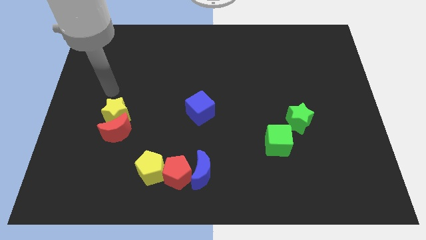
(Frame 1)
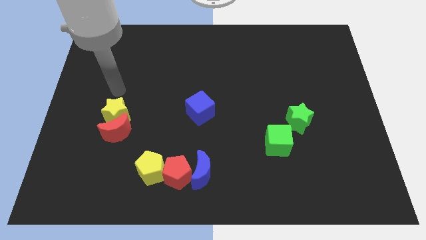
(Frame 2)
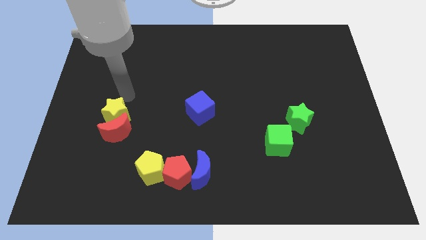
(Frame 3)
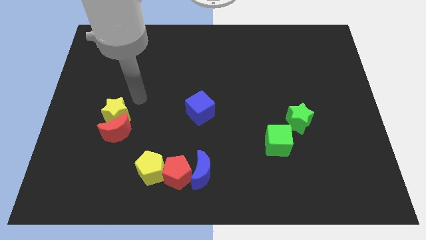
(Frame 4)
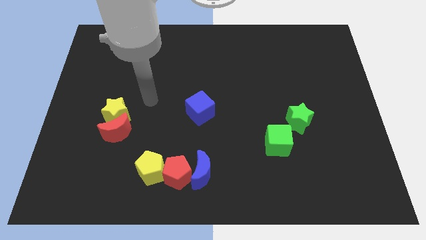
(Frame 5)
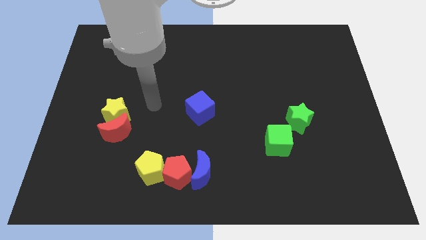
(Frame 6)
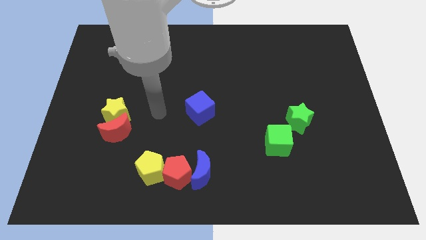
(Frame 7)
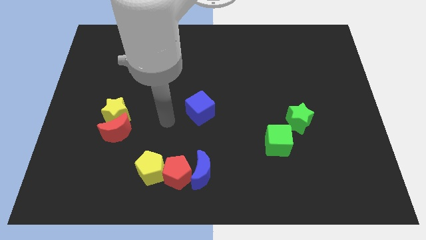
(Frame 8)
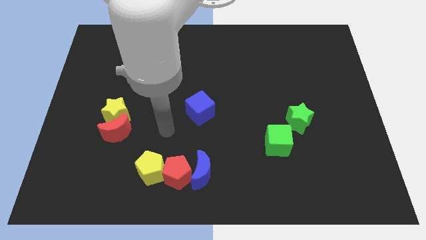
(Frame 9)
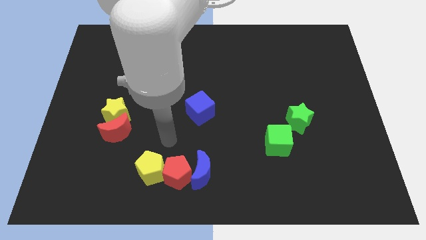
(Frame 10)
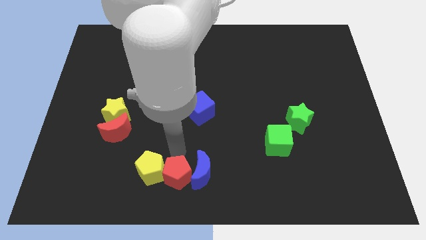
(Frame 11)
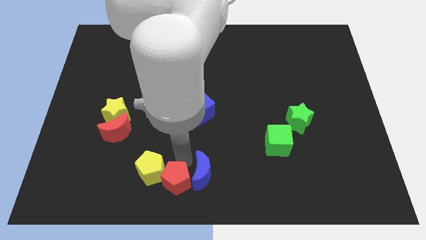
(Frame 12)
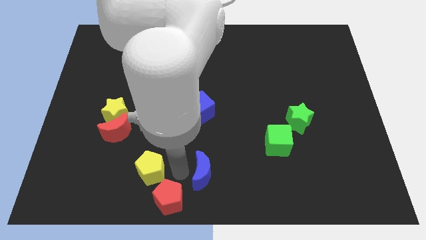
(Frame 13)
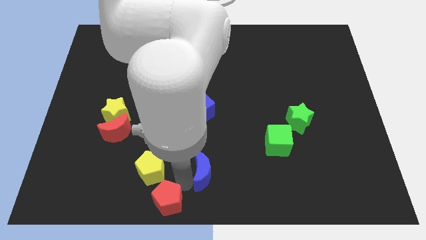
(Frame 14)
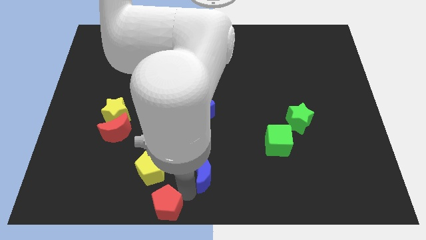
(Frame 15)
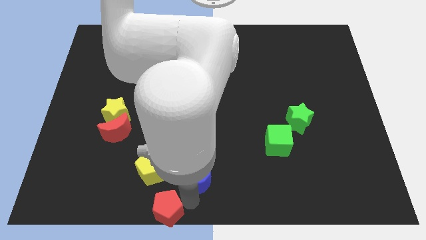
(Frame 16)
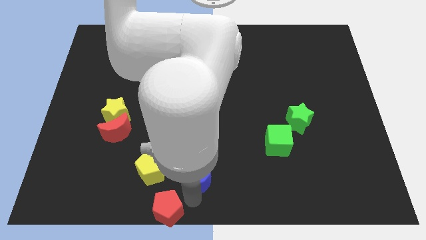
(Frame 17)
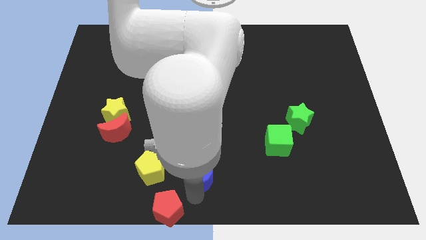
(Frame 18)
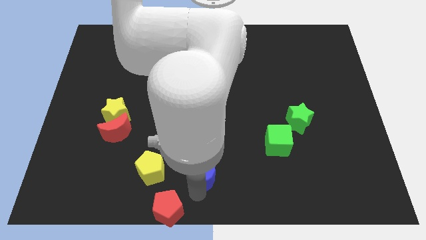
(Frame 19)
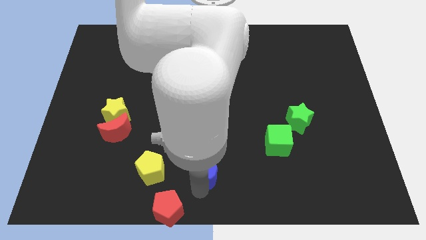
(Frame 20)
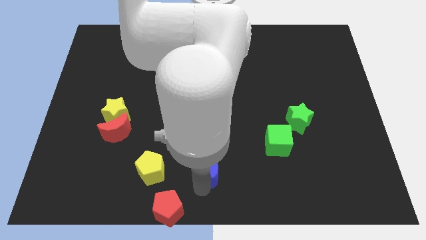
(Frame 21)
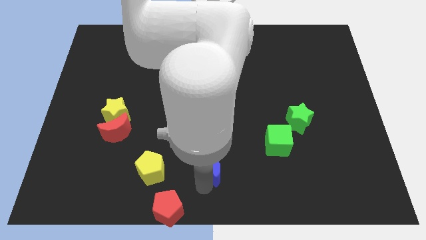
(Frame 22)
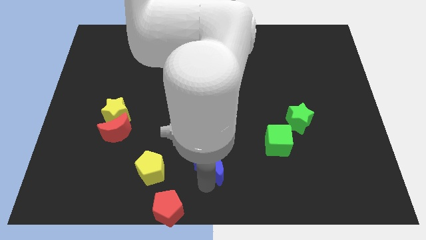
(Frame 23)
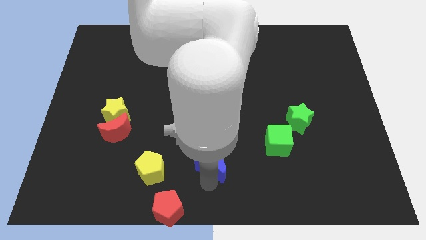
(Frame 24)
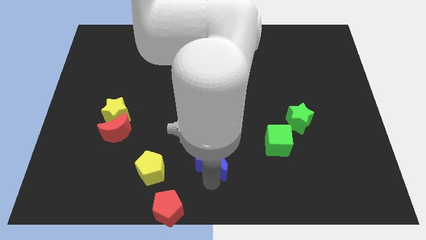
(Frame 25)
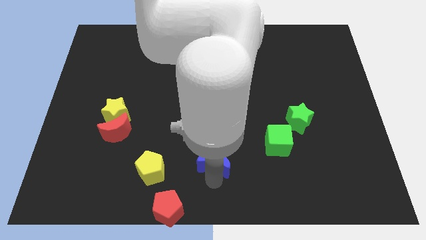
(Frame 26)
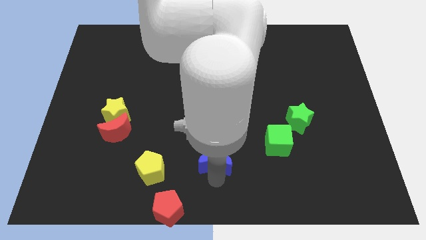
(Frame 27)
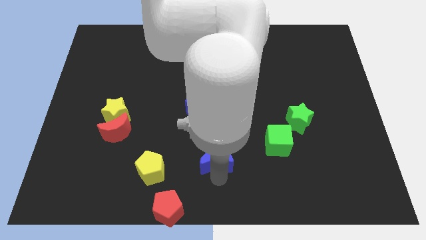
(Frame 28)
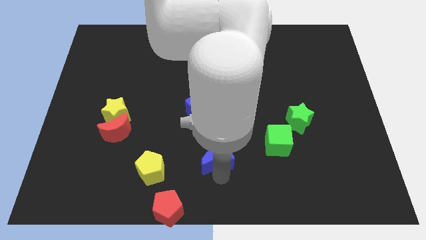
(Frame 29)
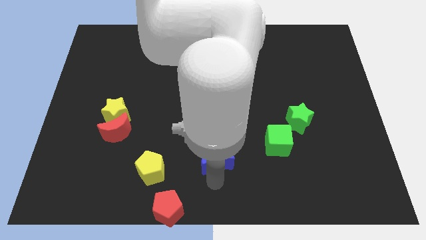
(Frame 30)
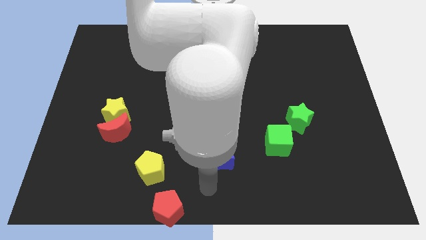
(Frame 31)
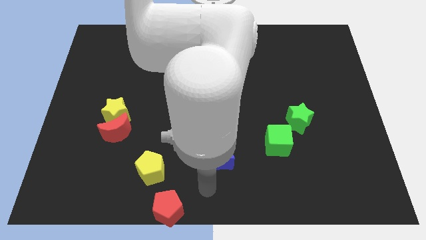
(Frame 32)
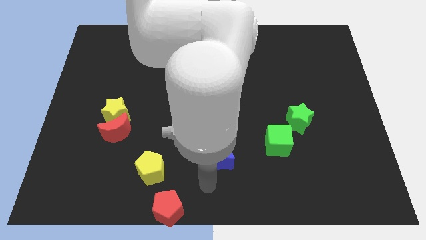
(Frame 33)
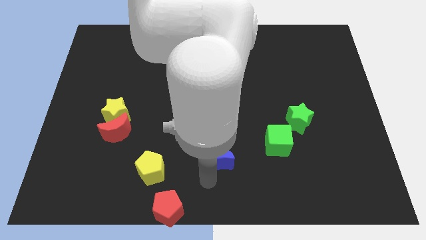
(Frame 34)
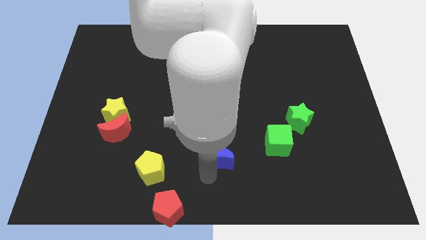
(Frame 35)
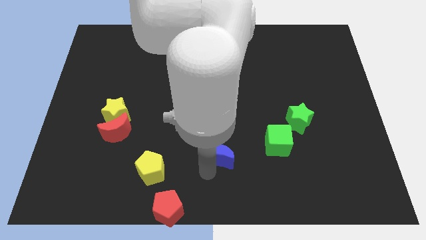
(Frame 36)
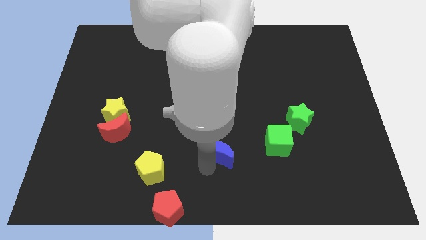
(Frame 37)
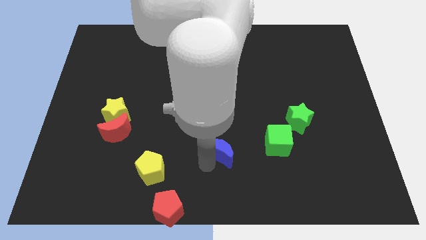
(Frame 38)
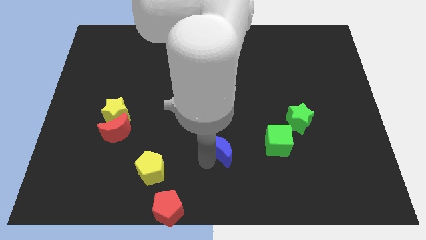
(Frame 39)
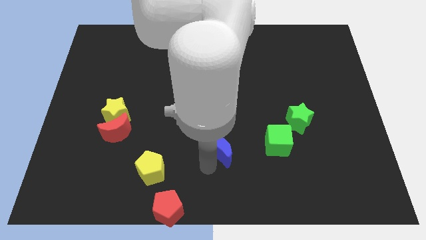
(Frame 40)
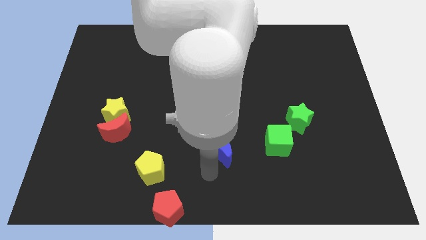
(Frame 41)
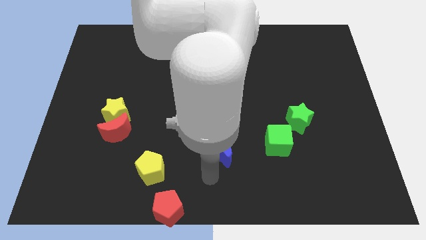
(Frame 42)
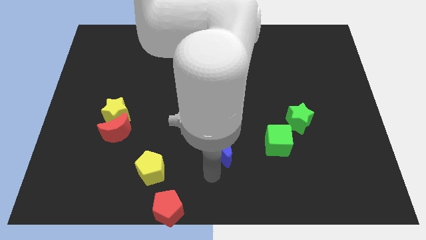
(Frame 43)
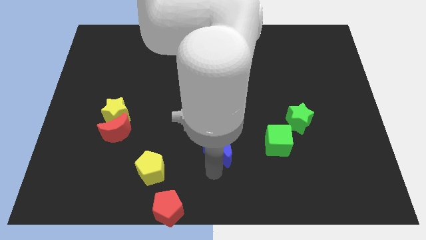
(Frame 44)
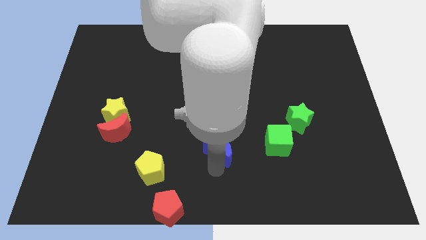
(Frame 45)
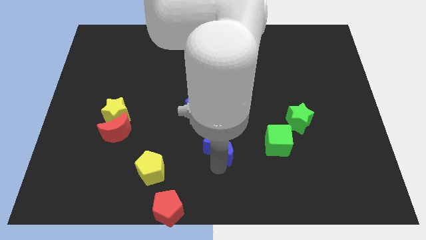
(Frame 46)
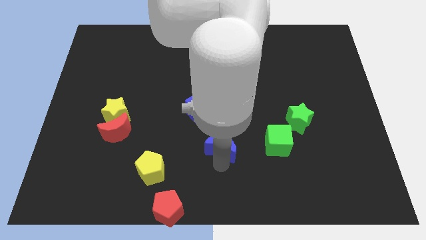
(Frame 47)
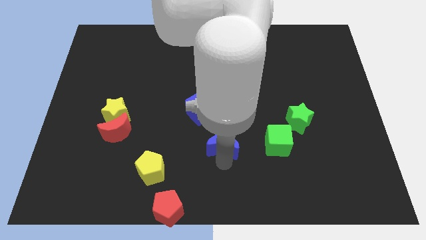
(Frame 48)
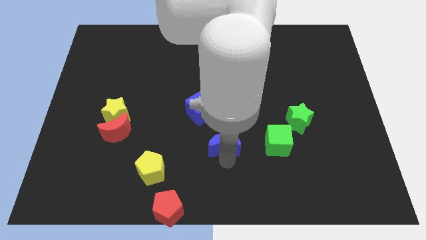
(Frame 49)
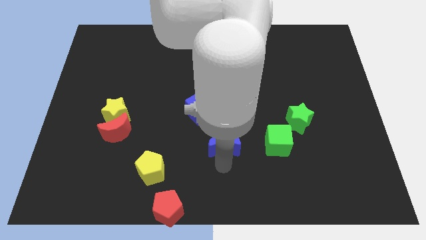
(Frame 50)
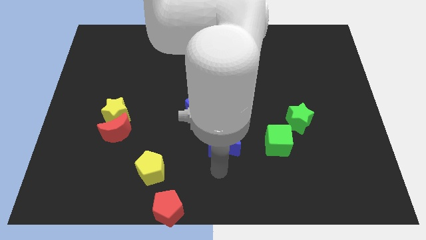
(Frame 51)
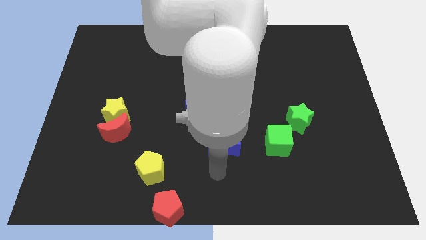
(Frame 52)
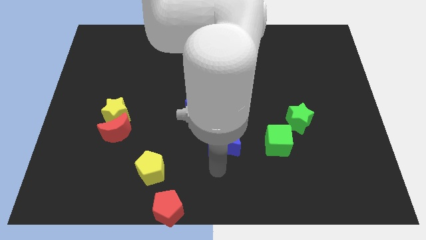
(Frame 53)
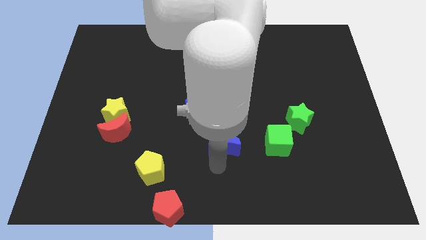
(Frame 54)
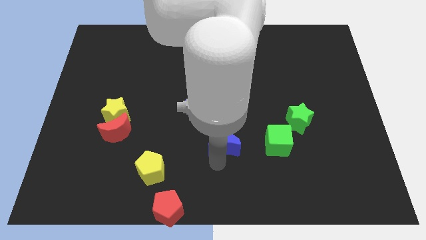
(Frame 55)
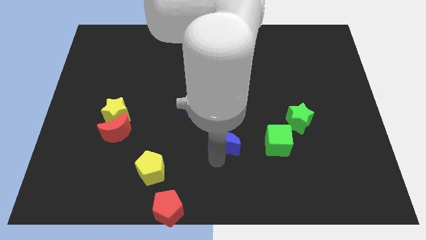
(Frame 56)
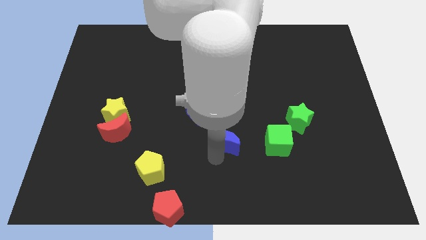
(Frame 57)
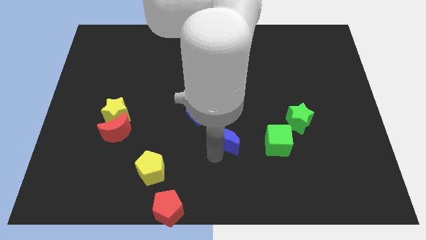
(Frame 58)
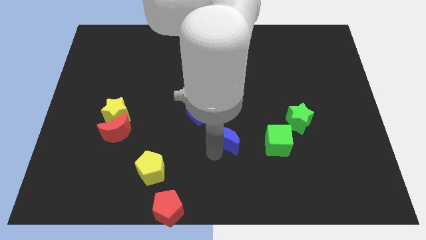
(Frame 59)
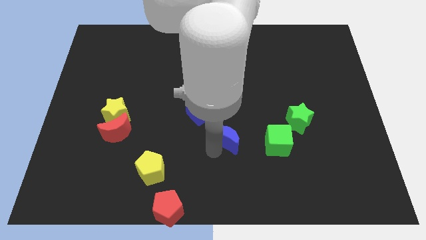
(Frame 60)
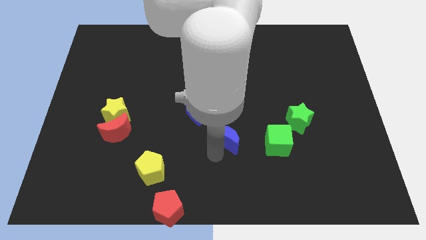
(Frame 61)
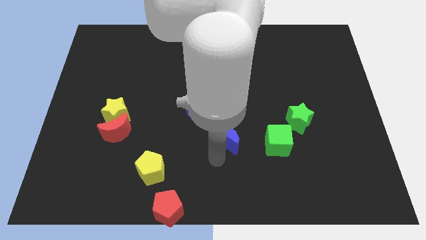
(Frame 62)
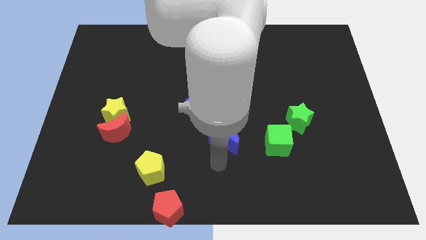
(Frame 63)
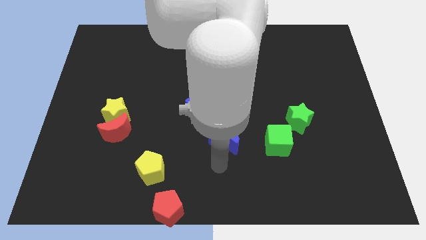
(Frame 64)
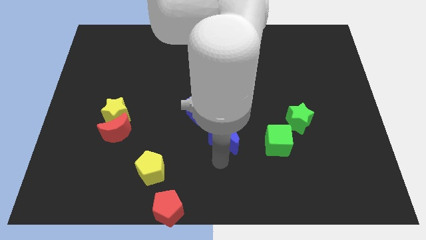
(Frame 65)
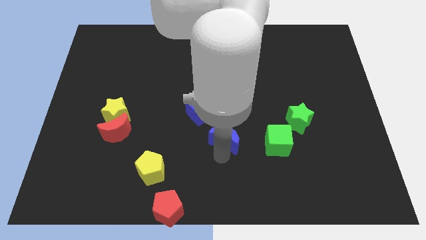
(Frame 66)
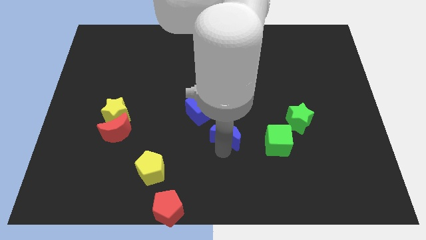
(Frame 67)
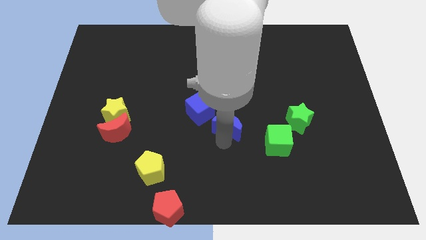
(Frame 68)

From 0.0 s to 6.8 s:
move the blue moon just right of the blue cube
